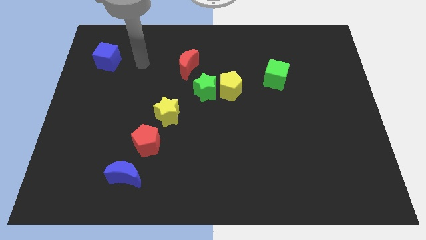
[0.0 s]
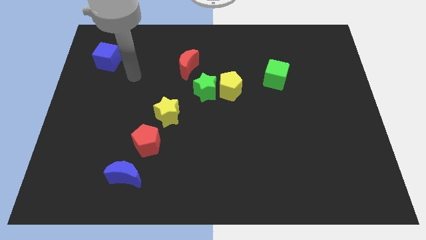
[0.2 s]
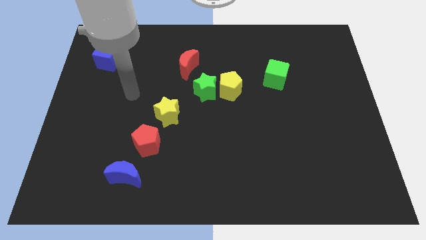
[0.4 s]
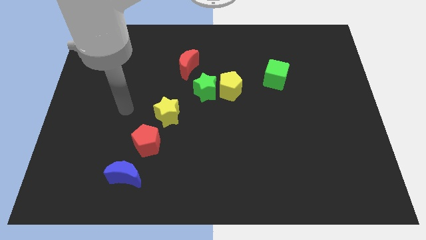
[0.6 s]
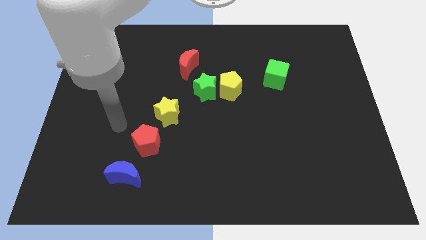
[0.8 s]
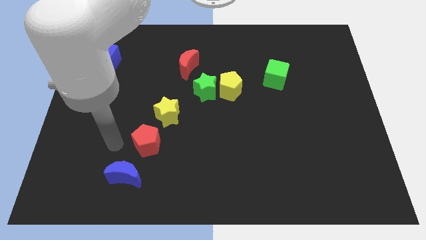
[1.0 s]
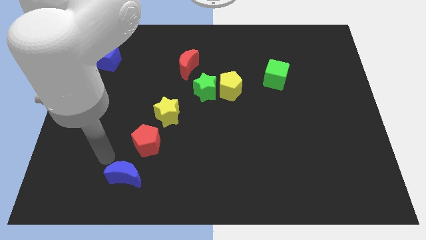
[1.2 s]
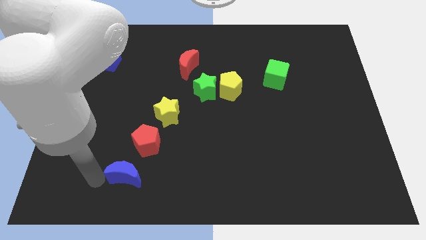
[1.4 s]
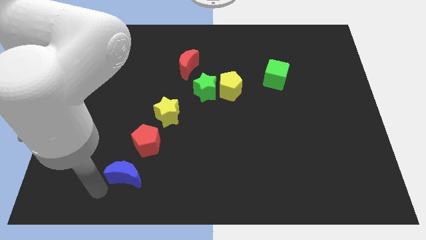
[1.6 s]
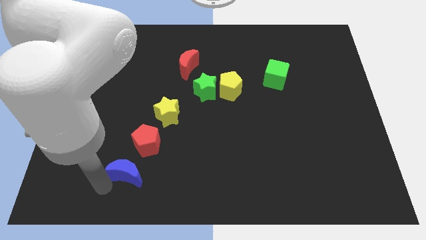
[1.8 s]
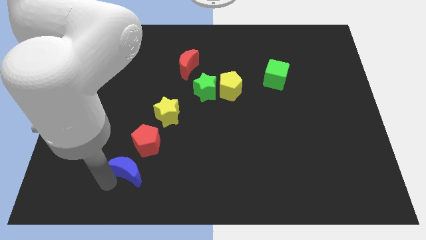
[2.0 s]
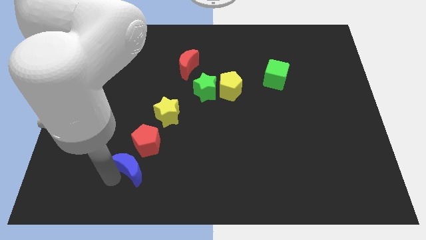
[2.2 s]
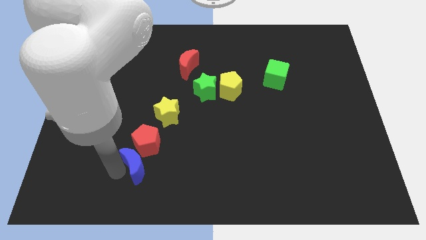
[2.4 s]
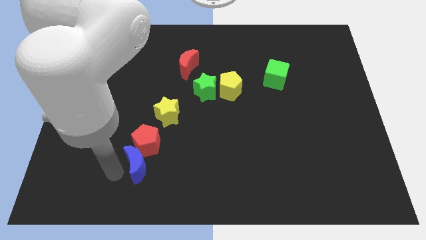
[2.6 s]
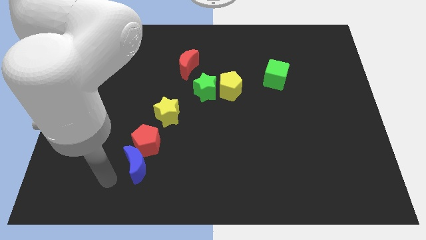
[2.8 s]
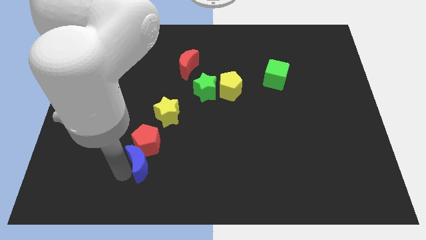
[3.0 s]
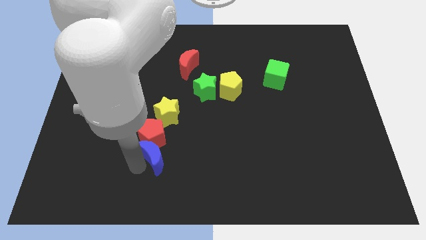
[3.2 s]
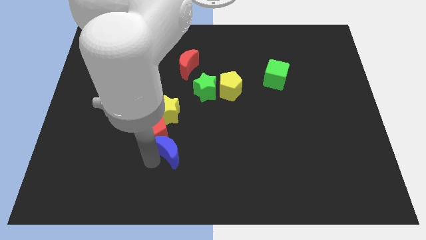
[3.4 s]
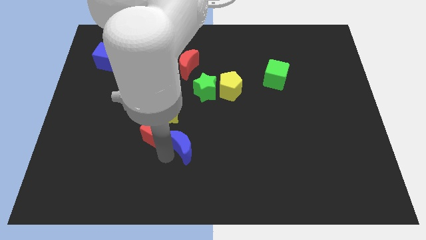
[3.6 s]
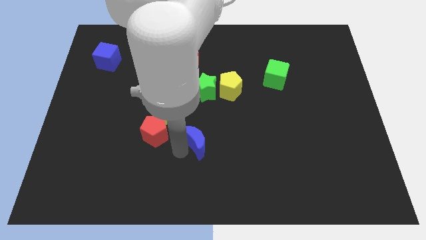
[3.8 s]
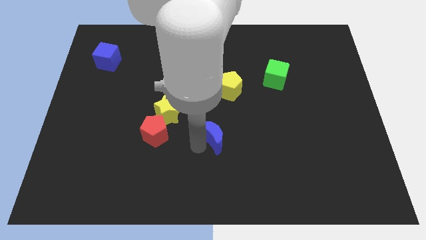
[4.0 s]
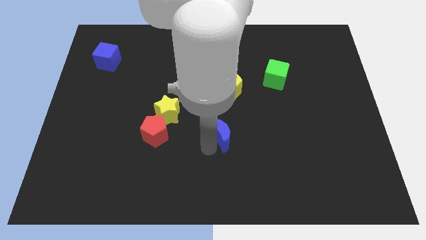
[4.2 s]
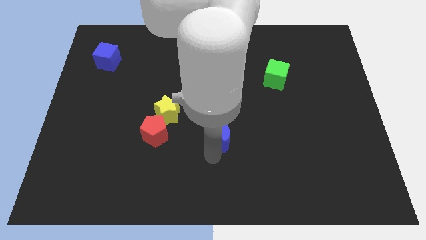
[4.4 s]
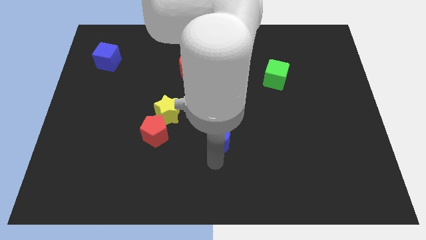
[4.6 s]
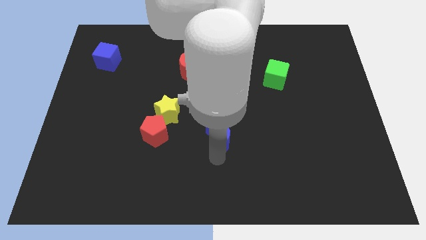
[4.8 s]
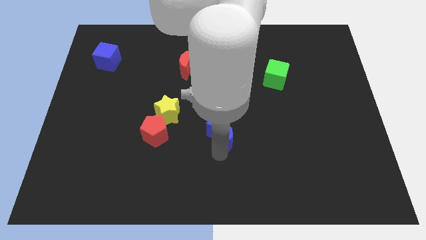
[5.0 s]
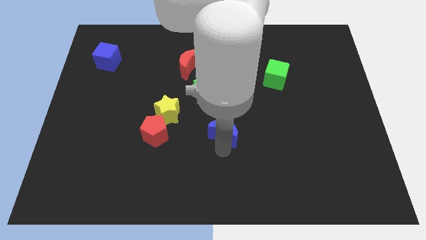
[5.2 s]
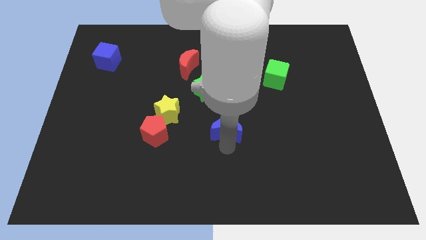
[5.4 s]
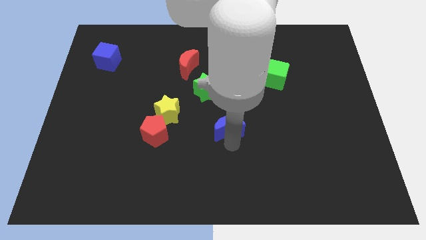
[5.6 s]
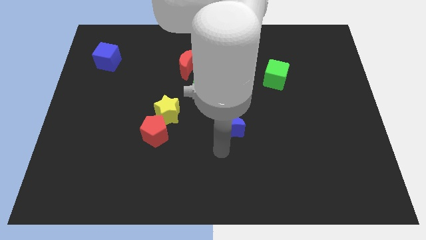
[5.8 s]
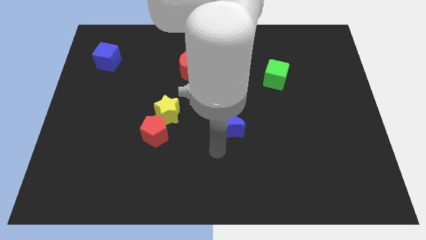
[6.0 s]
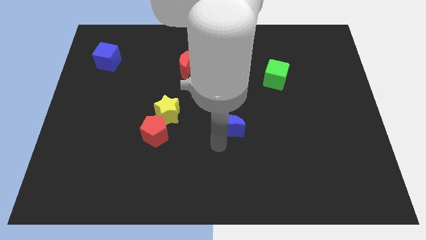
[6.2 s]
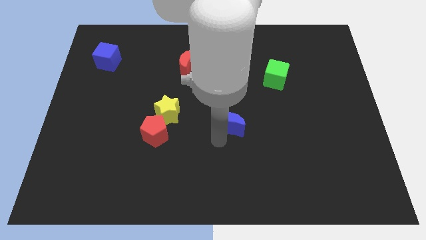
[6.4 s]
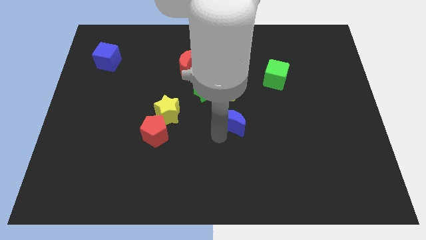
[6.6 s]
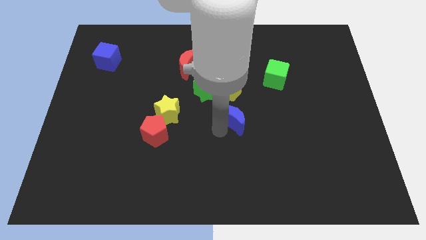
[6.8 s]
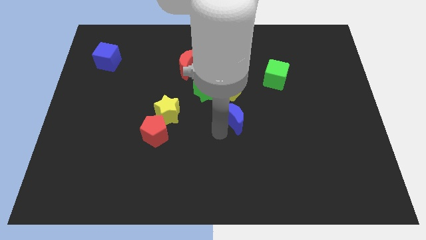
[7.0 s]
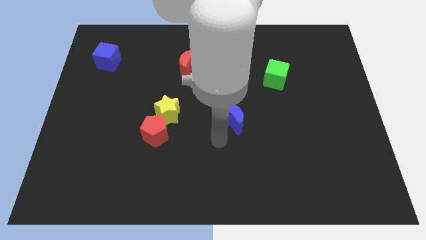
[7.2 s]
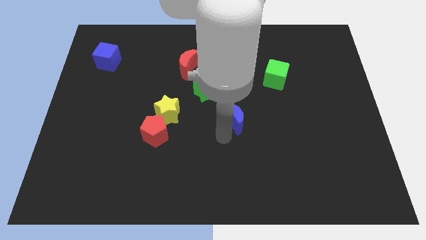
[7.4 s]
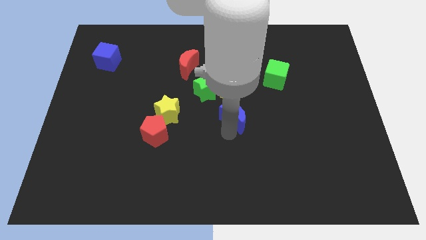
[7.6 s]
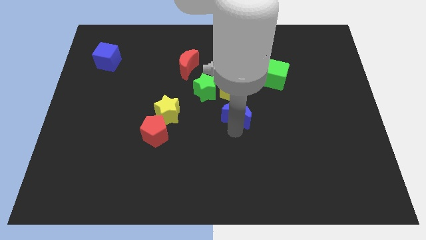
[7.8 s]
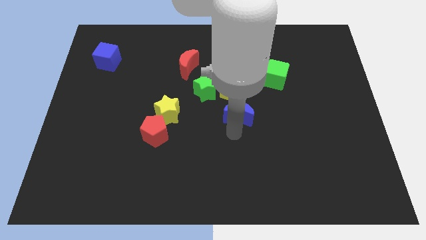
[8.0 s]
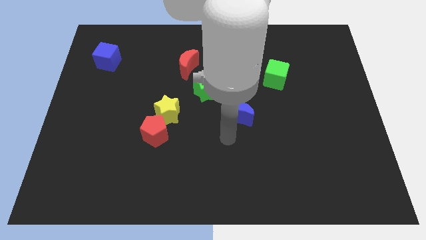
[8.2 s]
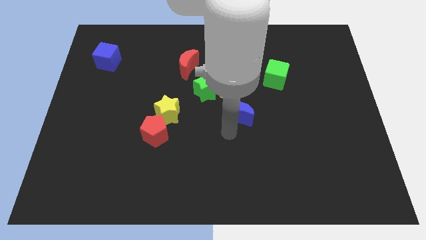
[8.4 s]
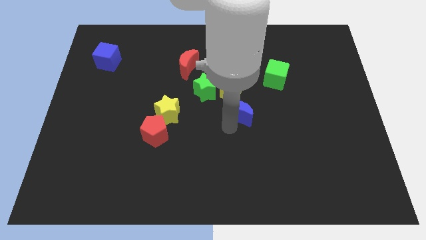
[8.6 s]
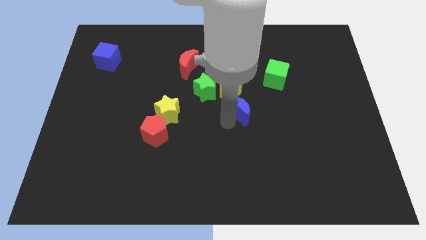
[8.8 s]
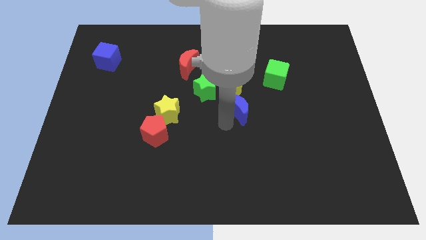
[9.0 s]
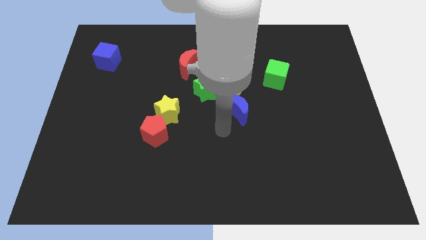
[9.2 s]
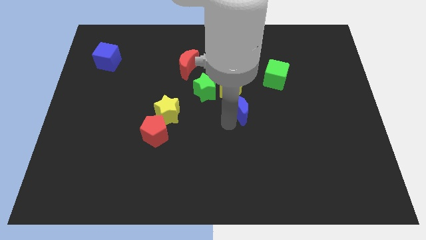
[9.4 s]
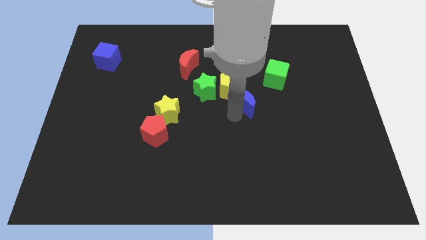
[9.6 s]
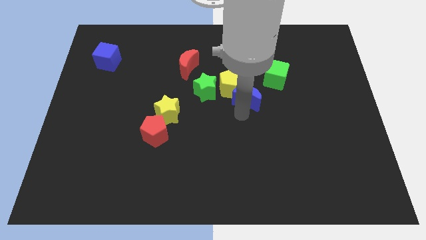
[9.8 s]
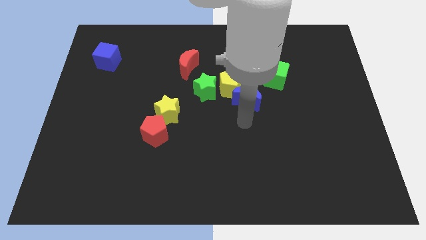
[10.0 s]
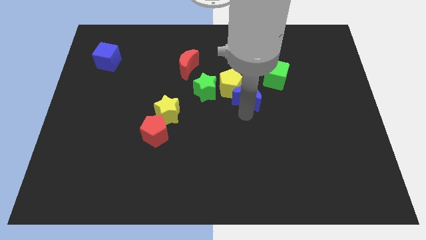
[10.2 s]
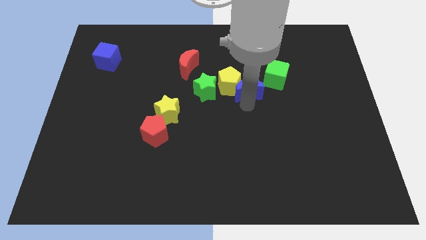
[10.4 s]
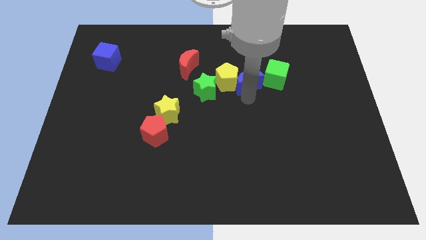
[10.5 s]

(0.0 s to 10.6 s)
put the blue moon to the top right of the yellow pentagon

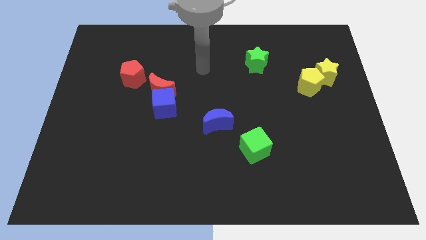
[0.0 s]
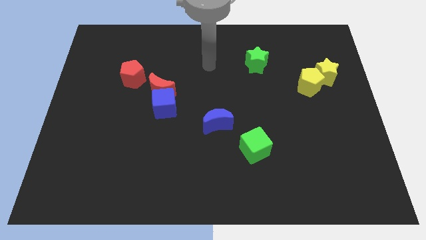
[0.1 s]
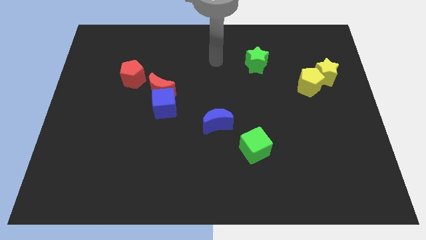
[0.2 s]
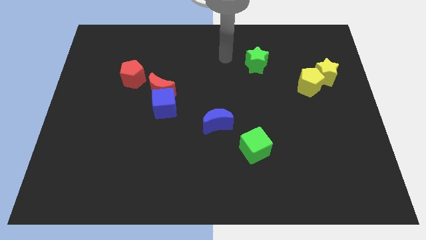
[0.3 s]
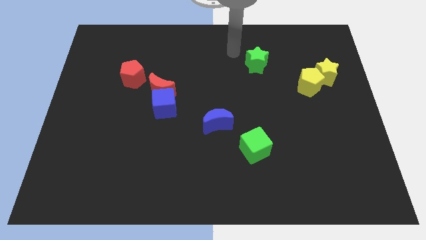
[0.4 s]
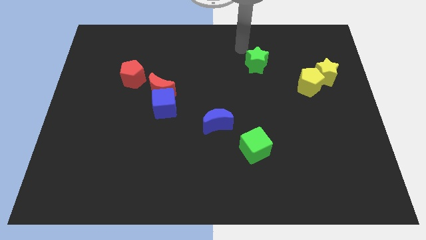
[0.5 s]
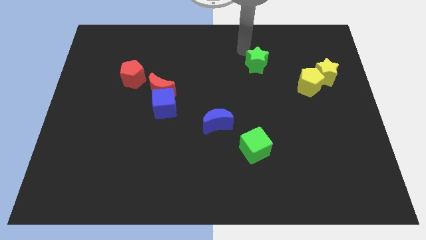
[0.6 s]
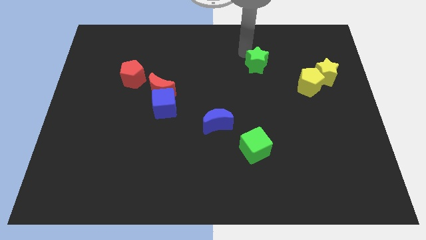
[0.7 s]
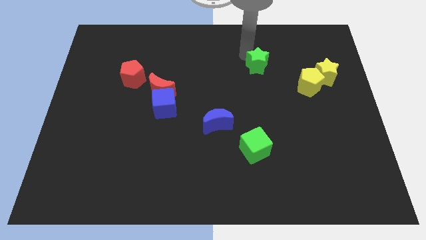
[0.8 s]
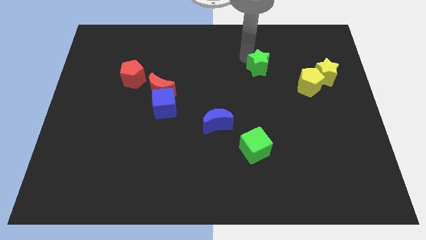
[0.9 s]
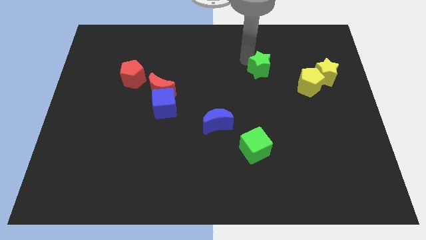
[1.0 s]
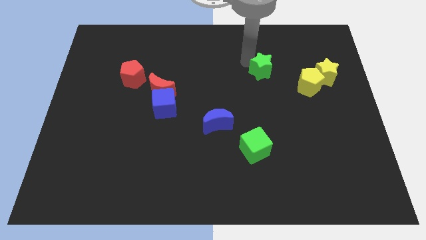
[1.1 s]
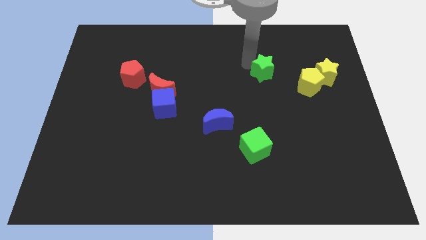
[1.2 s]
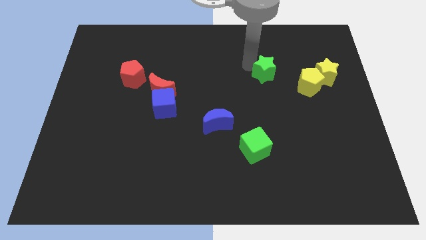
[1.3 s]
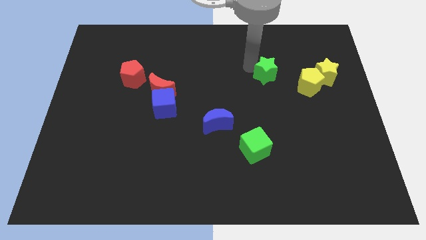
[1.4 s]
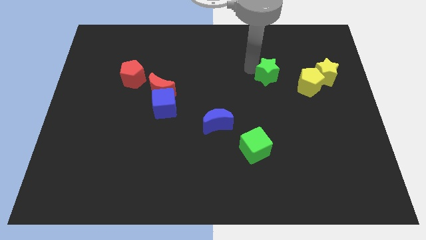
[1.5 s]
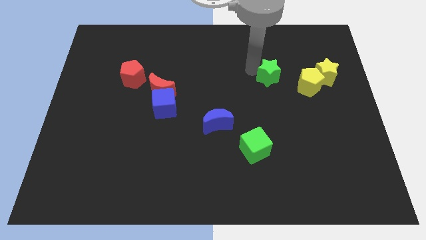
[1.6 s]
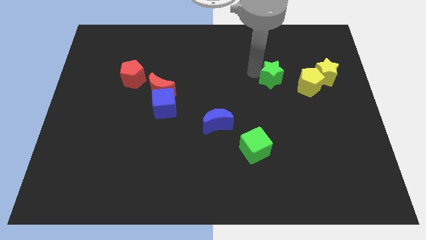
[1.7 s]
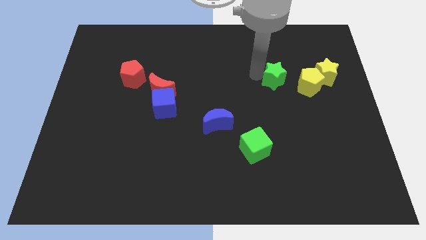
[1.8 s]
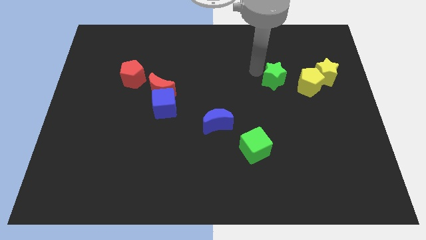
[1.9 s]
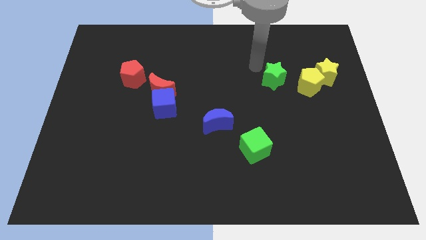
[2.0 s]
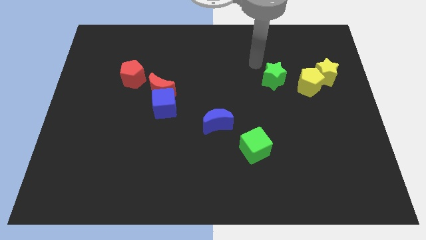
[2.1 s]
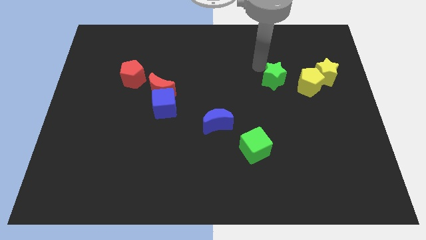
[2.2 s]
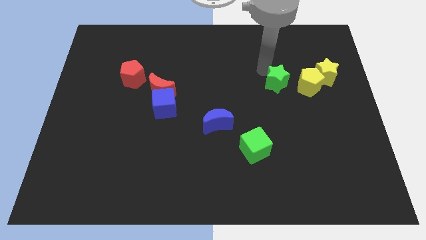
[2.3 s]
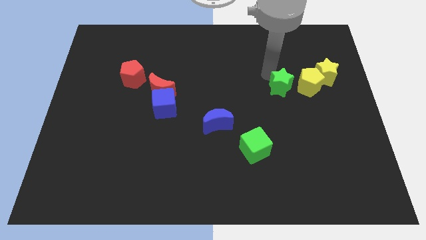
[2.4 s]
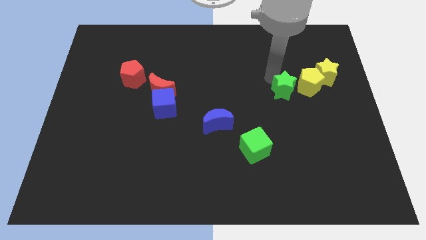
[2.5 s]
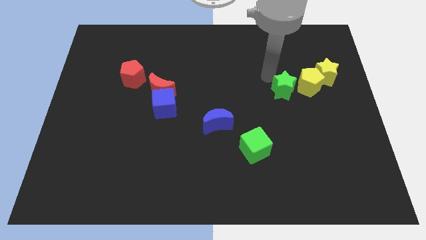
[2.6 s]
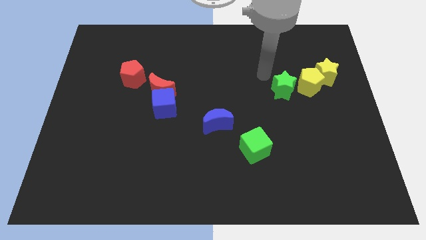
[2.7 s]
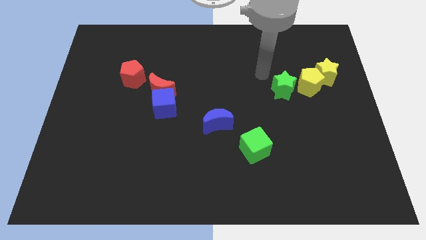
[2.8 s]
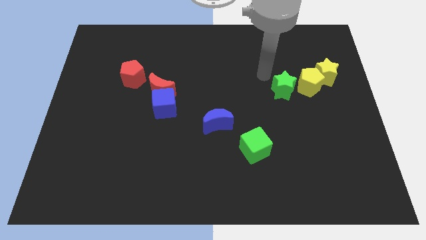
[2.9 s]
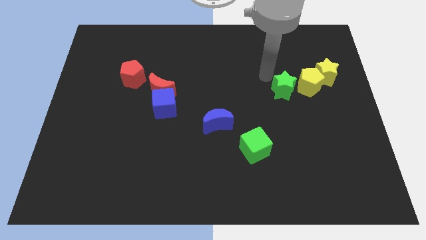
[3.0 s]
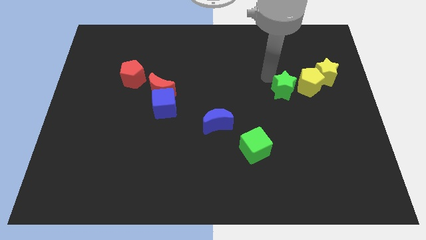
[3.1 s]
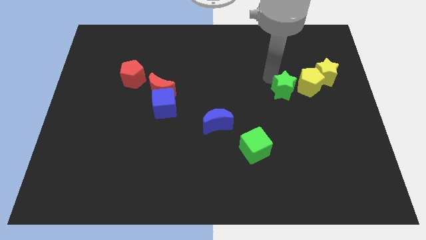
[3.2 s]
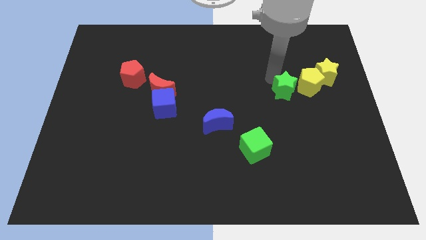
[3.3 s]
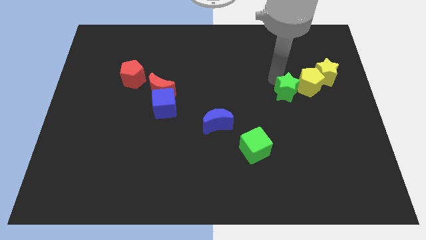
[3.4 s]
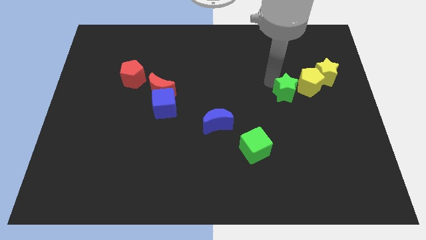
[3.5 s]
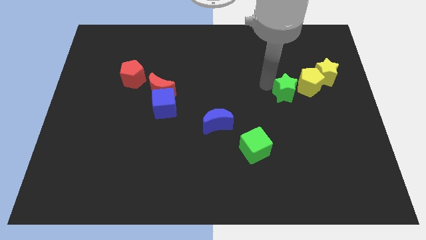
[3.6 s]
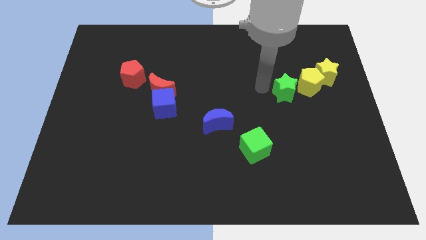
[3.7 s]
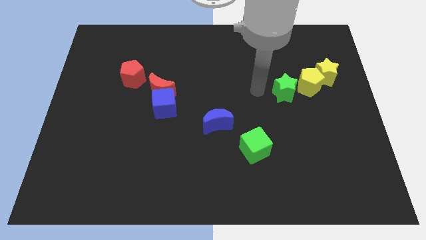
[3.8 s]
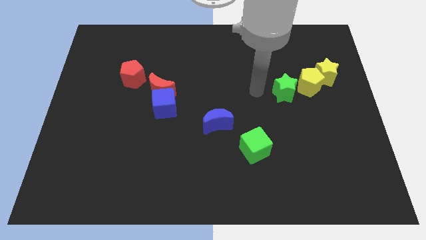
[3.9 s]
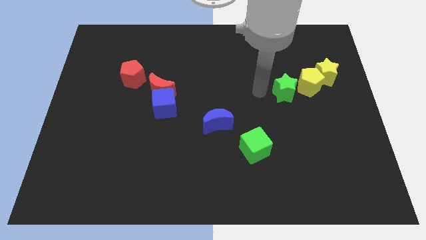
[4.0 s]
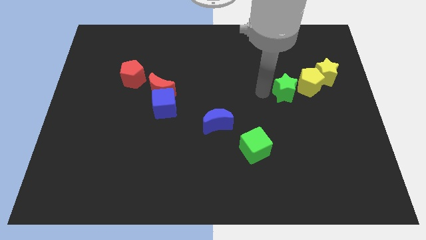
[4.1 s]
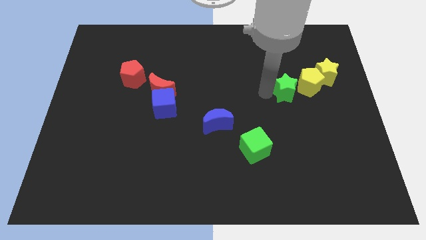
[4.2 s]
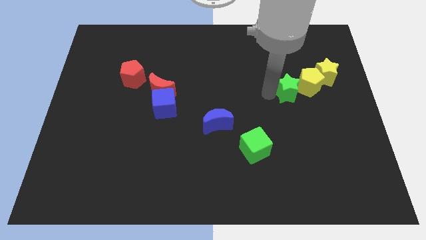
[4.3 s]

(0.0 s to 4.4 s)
push the green star to the bottom left side of the yellow star
